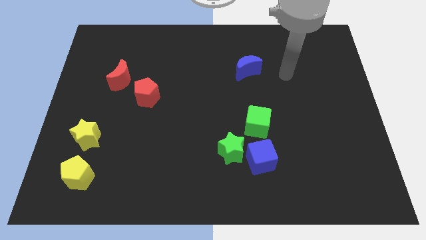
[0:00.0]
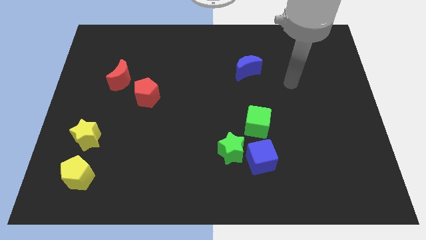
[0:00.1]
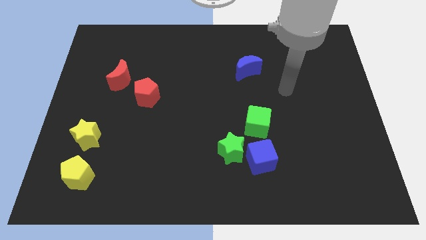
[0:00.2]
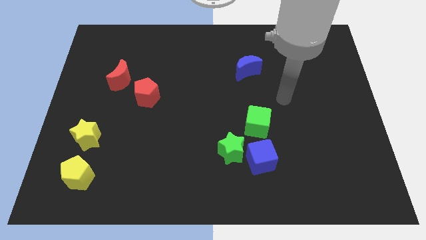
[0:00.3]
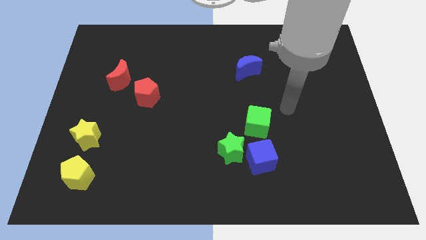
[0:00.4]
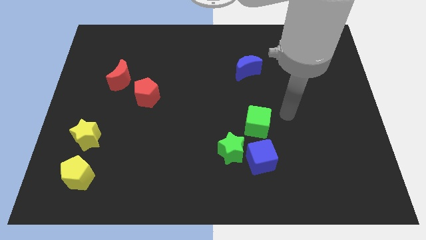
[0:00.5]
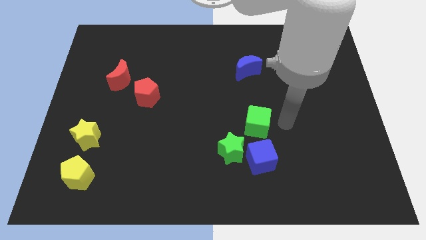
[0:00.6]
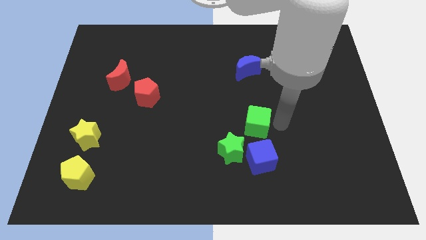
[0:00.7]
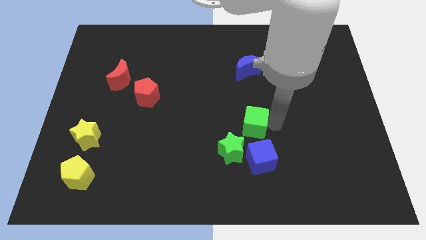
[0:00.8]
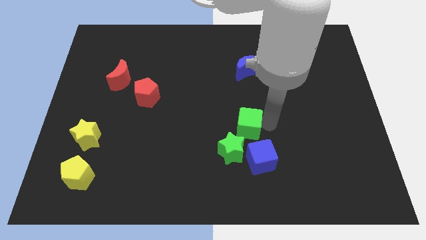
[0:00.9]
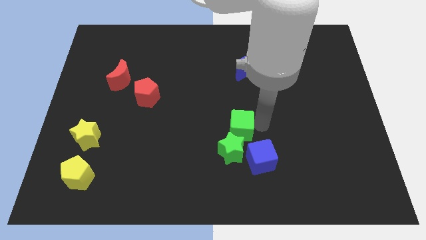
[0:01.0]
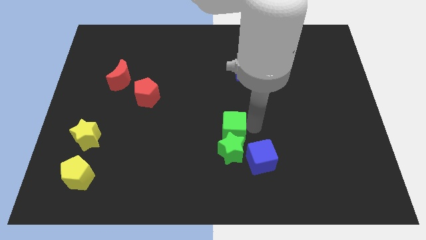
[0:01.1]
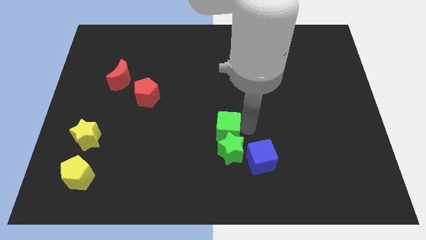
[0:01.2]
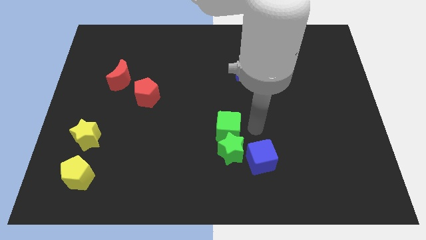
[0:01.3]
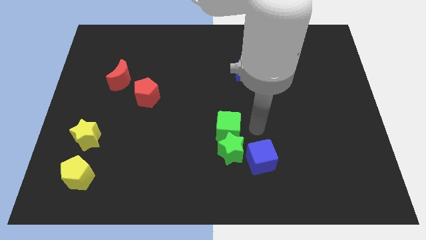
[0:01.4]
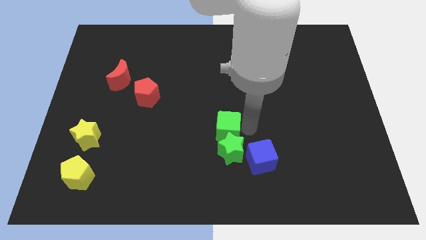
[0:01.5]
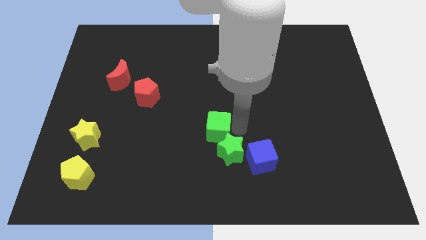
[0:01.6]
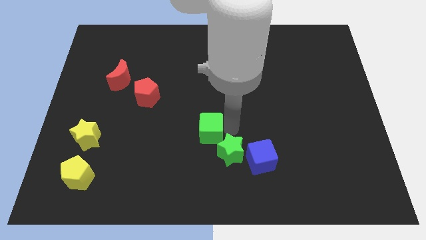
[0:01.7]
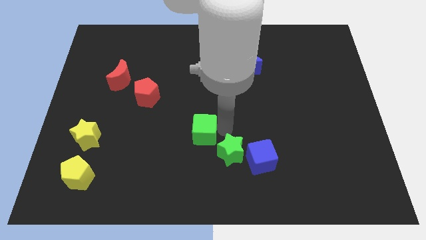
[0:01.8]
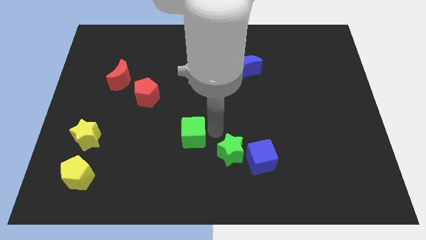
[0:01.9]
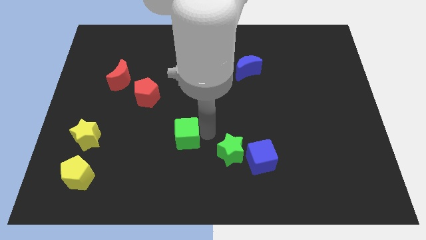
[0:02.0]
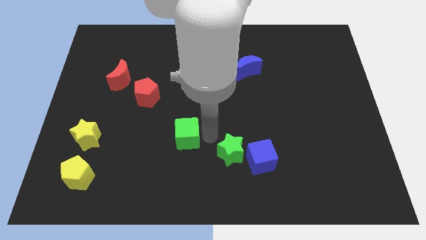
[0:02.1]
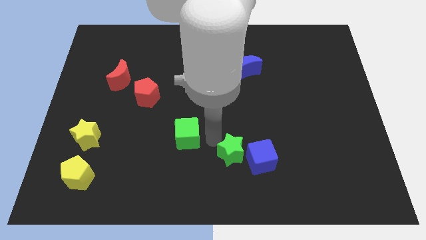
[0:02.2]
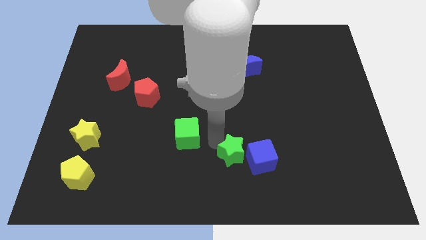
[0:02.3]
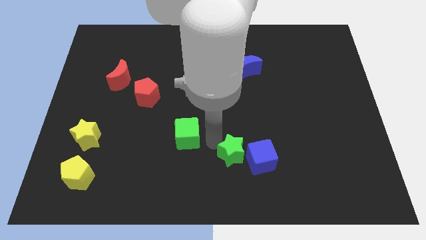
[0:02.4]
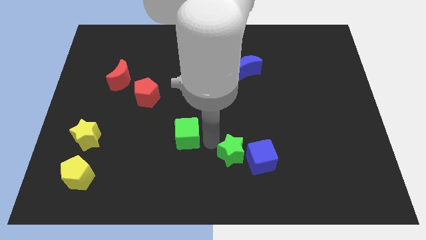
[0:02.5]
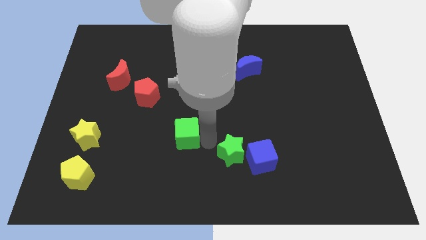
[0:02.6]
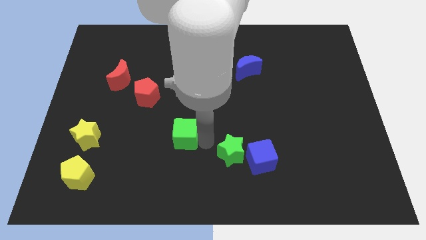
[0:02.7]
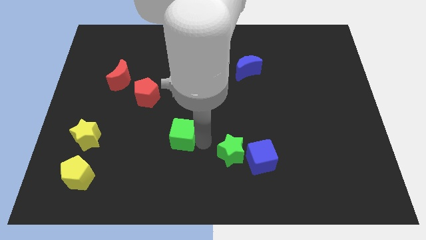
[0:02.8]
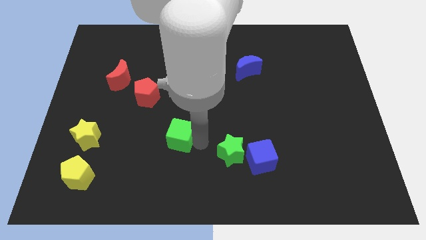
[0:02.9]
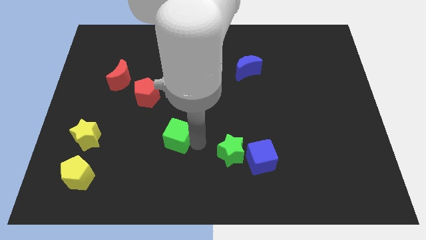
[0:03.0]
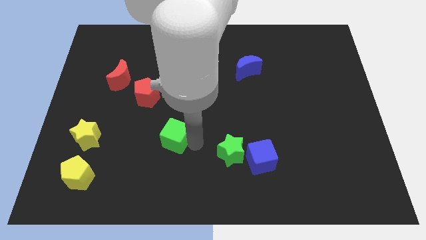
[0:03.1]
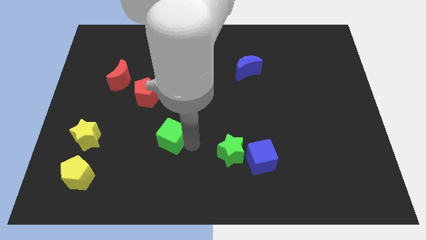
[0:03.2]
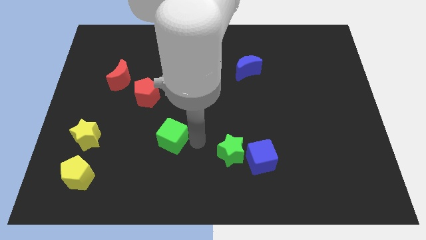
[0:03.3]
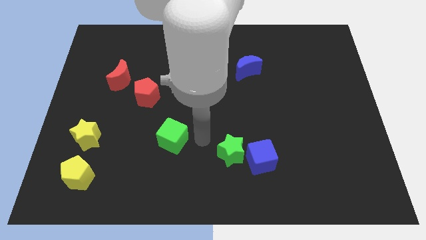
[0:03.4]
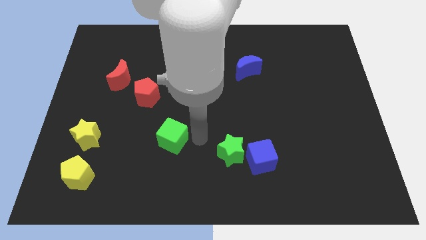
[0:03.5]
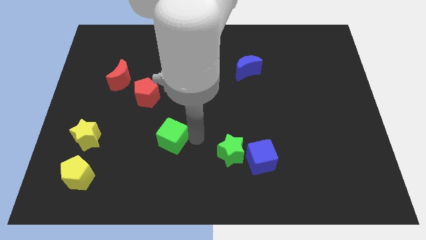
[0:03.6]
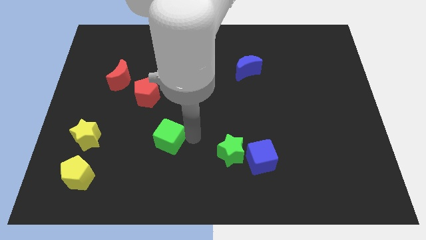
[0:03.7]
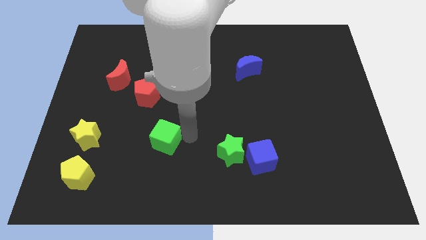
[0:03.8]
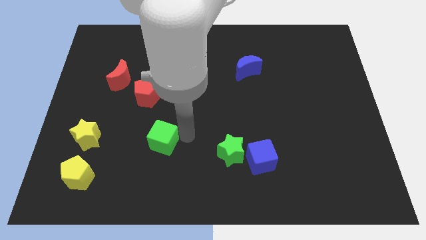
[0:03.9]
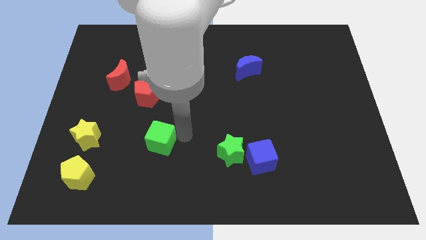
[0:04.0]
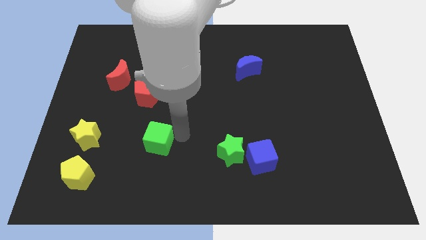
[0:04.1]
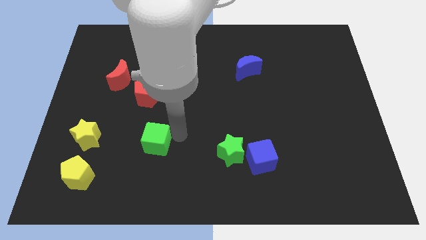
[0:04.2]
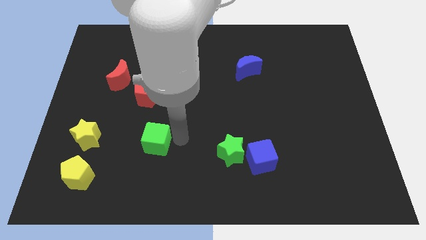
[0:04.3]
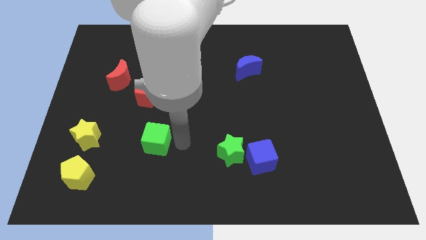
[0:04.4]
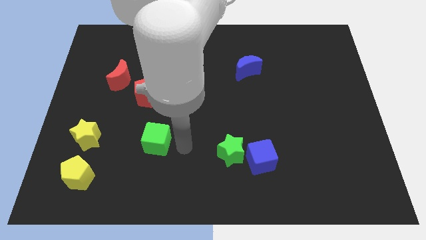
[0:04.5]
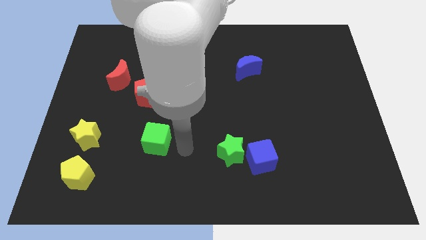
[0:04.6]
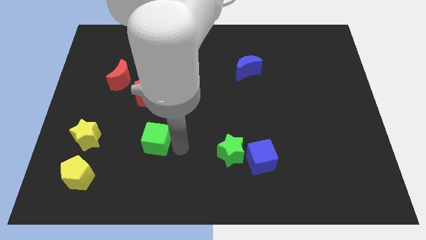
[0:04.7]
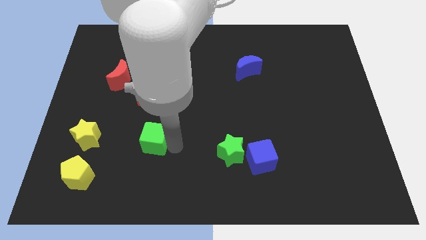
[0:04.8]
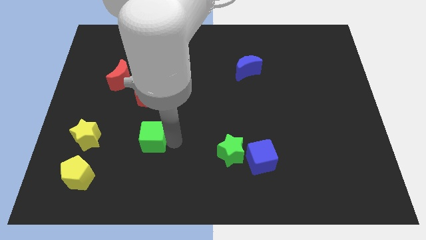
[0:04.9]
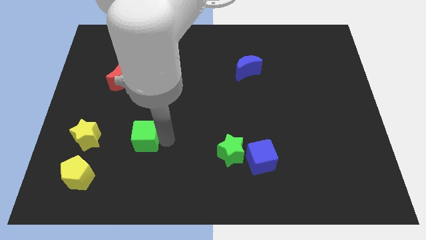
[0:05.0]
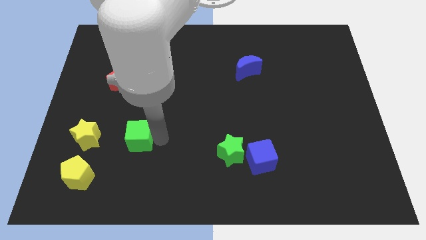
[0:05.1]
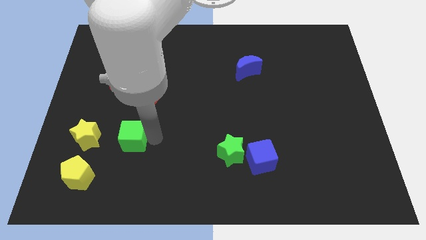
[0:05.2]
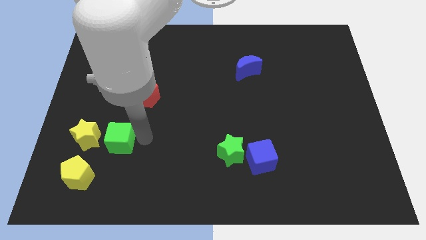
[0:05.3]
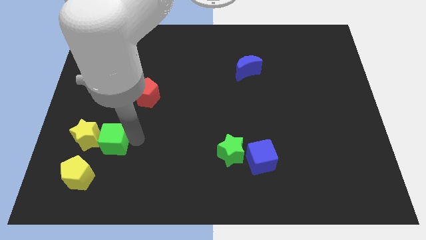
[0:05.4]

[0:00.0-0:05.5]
put the green cube close to the yellow star

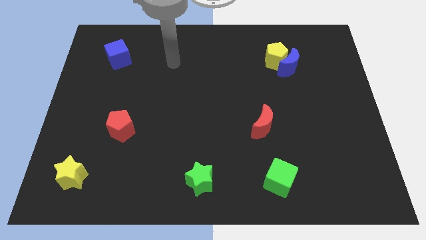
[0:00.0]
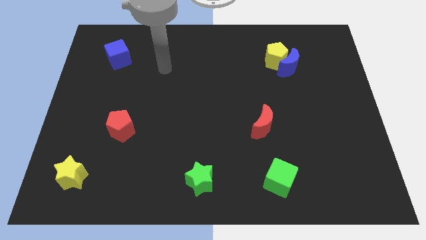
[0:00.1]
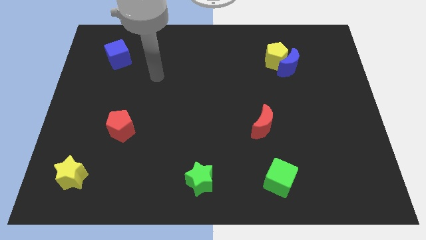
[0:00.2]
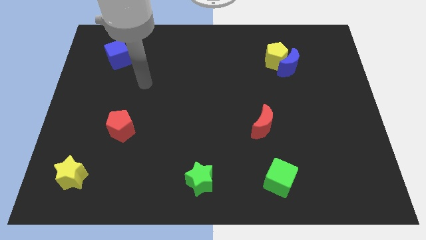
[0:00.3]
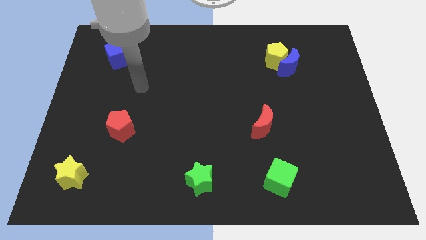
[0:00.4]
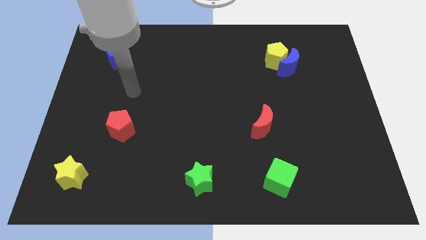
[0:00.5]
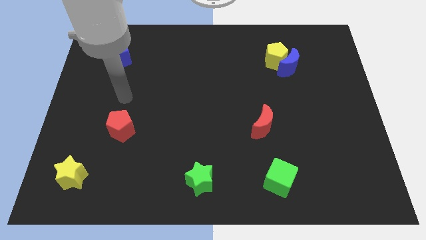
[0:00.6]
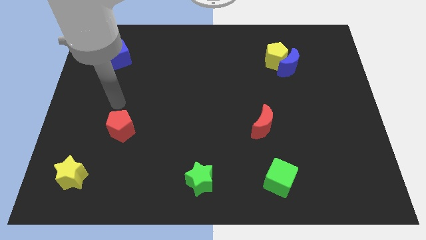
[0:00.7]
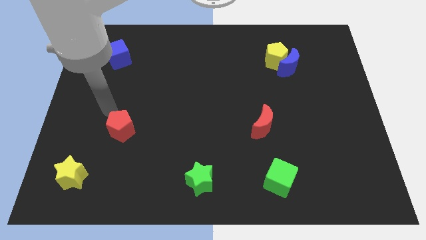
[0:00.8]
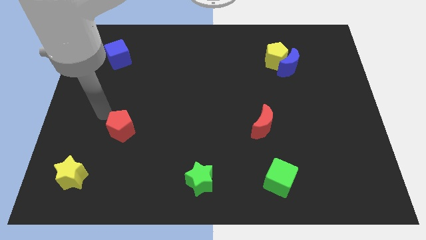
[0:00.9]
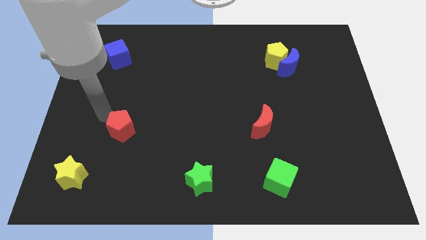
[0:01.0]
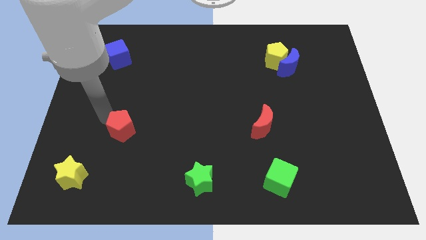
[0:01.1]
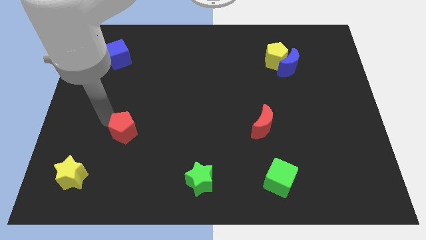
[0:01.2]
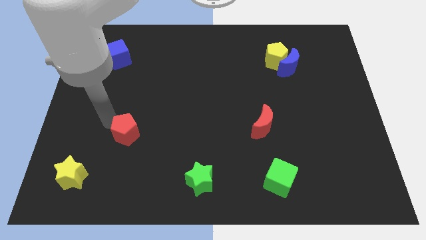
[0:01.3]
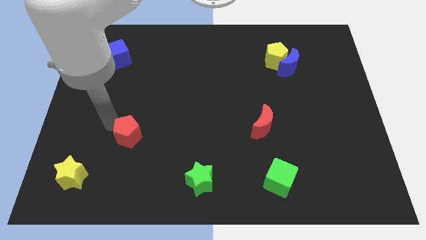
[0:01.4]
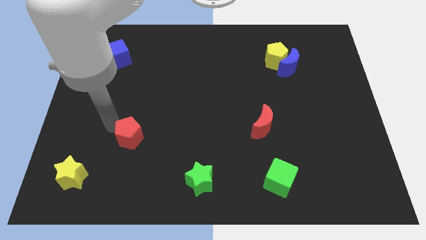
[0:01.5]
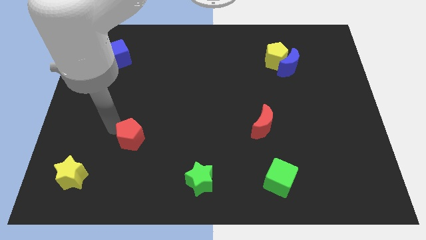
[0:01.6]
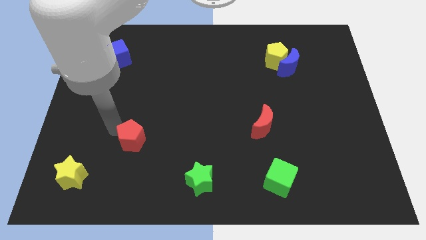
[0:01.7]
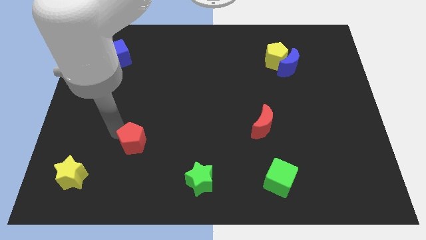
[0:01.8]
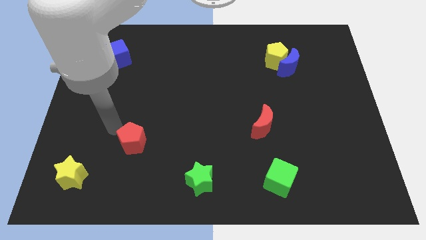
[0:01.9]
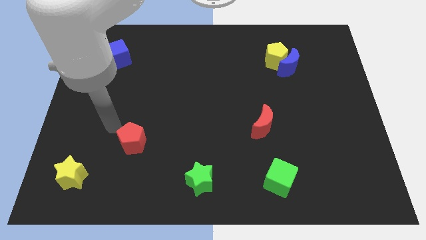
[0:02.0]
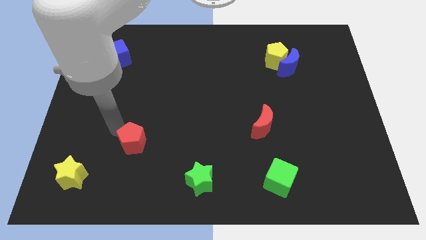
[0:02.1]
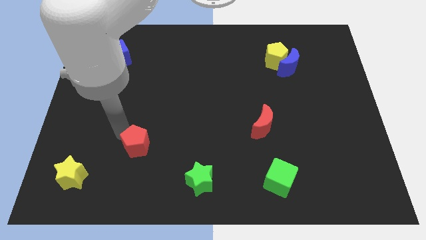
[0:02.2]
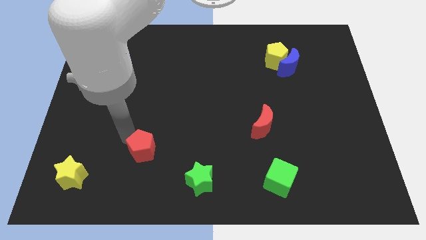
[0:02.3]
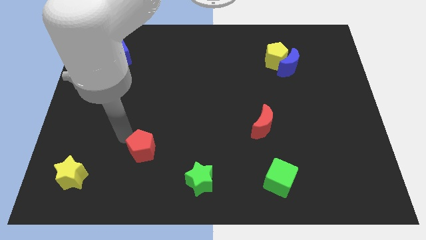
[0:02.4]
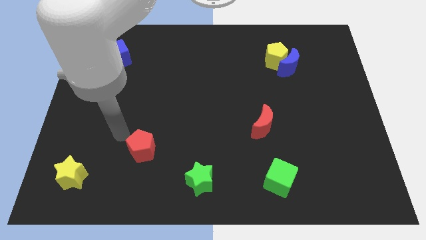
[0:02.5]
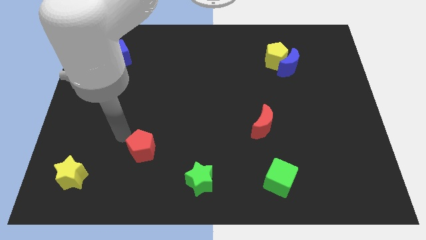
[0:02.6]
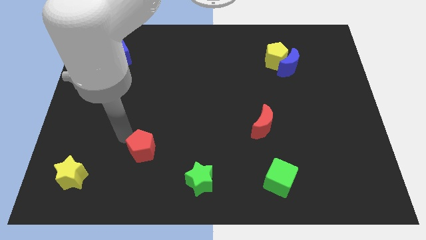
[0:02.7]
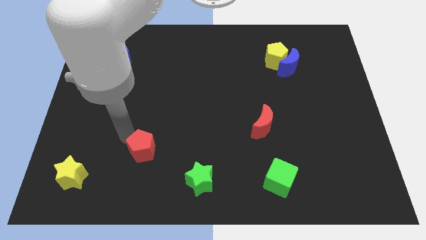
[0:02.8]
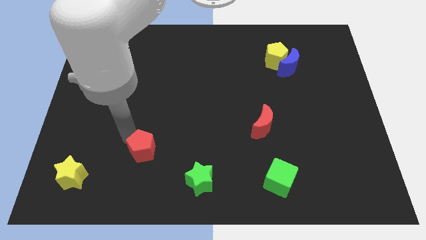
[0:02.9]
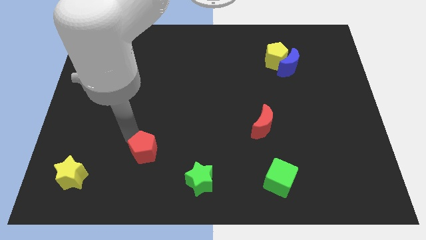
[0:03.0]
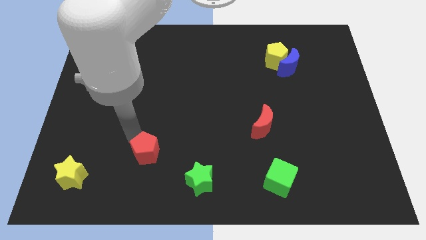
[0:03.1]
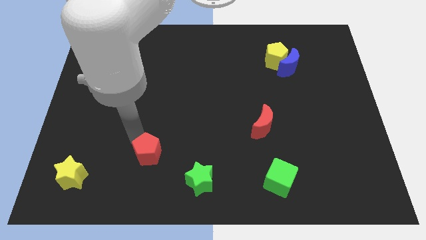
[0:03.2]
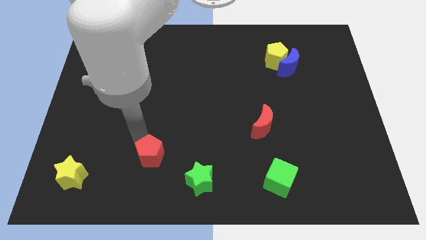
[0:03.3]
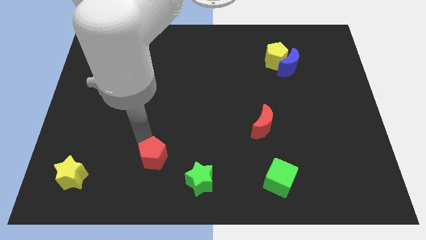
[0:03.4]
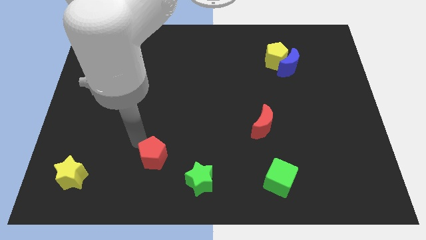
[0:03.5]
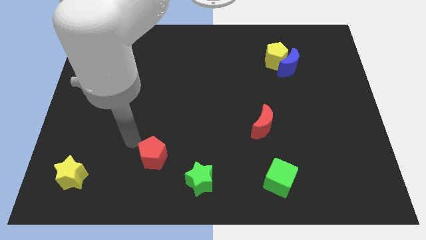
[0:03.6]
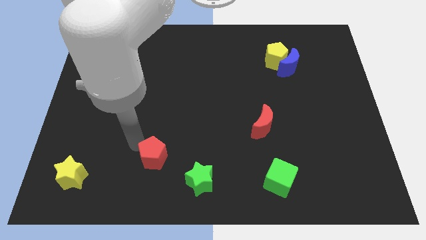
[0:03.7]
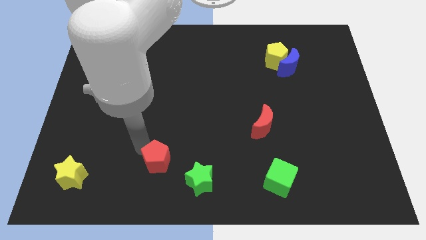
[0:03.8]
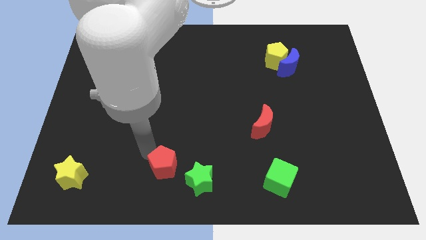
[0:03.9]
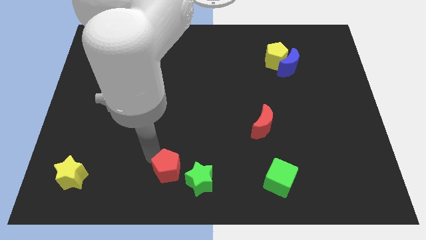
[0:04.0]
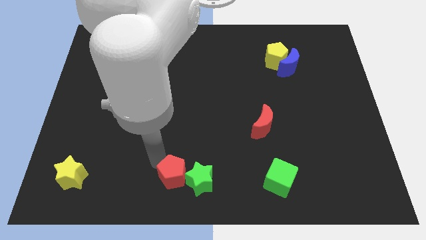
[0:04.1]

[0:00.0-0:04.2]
put the red pentagon towards the green star
